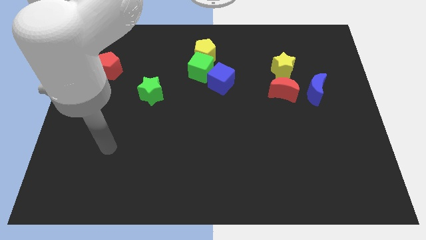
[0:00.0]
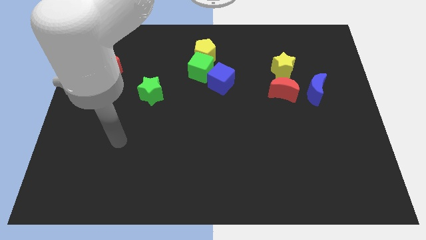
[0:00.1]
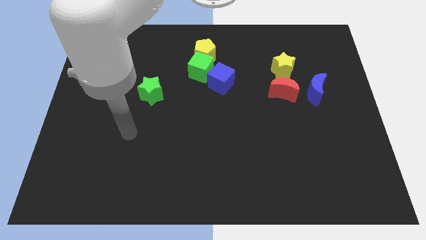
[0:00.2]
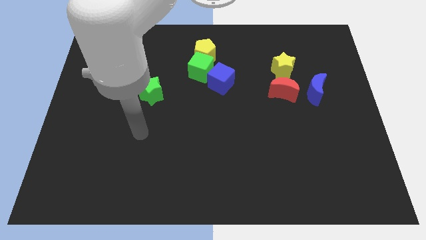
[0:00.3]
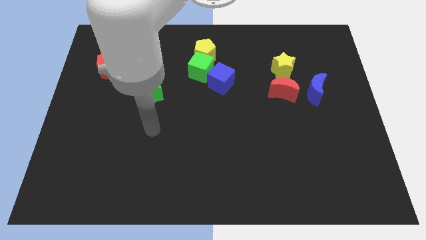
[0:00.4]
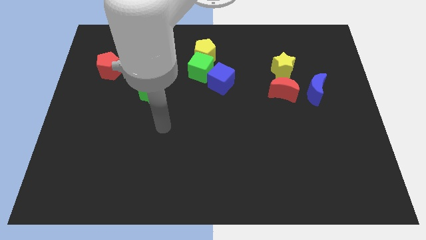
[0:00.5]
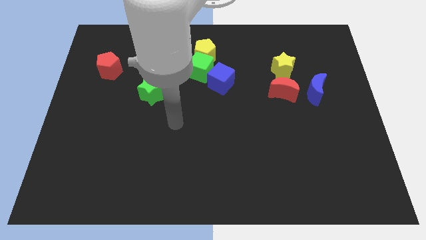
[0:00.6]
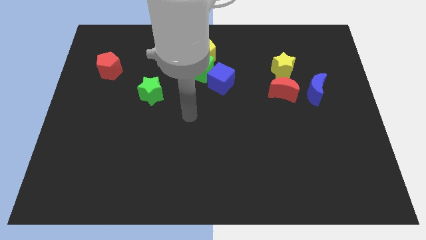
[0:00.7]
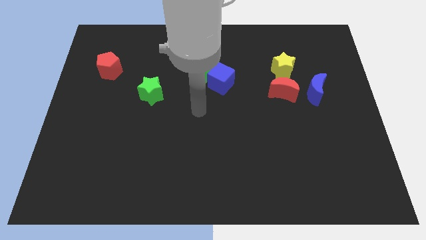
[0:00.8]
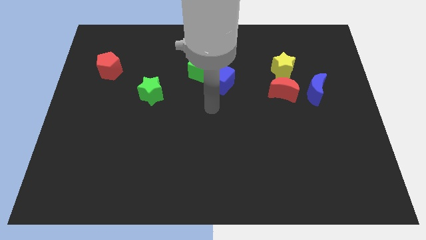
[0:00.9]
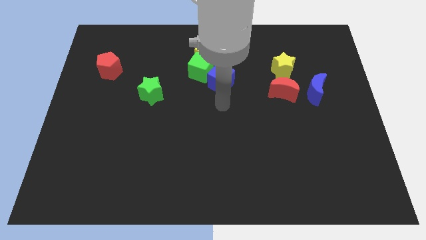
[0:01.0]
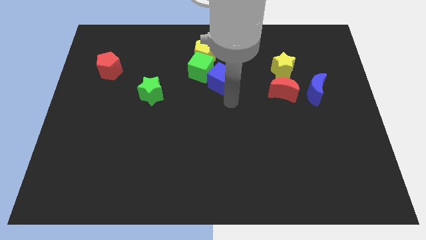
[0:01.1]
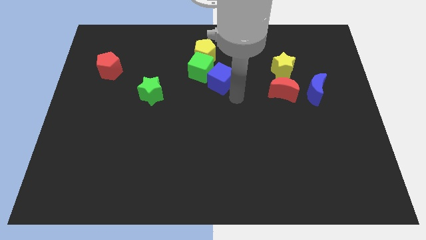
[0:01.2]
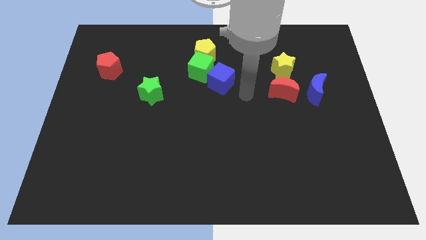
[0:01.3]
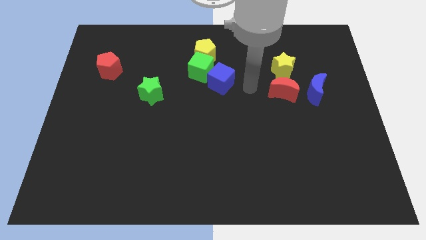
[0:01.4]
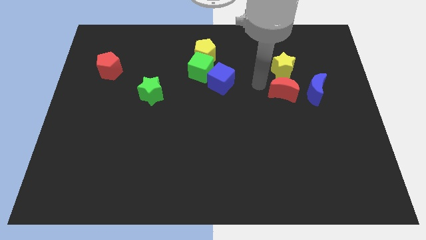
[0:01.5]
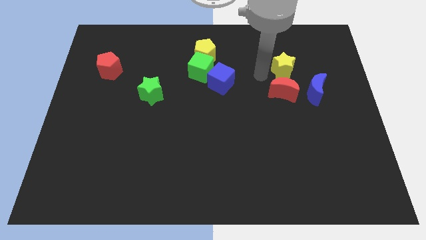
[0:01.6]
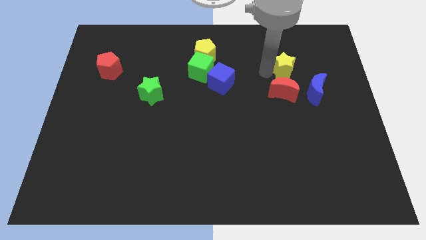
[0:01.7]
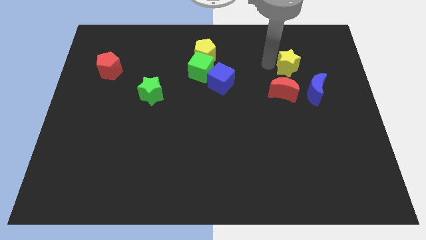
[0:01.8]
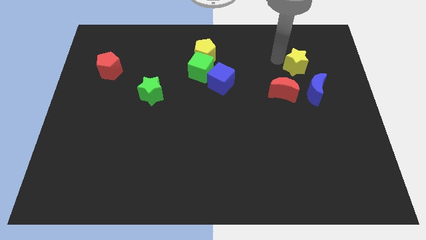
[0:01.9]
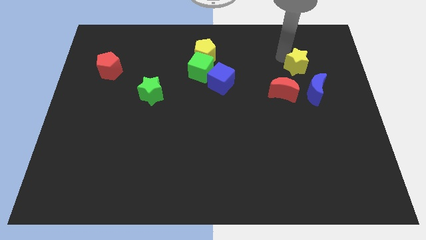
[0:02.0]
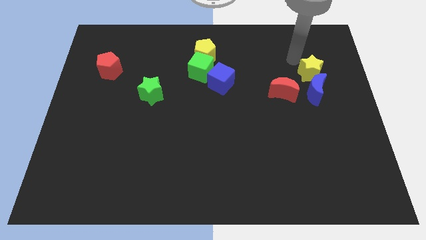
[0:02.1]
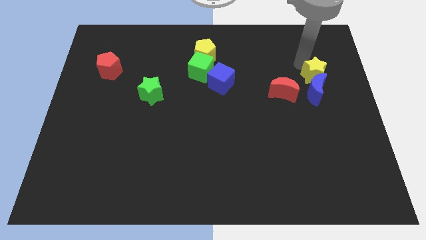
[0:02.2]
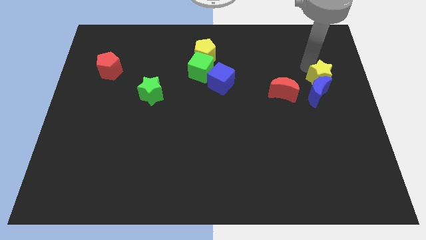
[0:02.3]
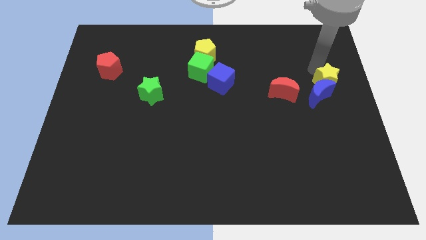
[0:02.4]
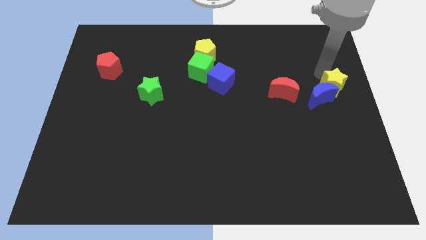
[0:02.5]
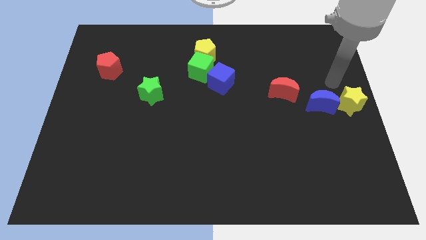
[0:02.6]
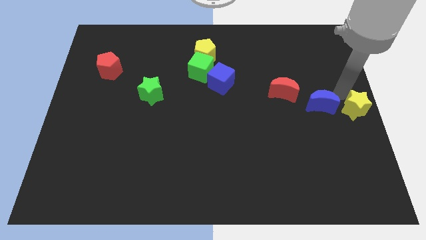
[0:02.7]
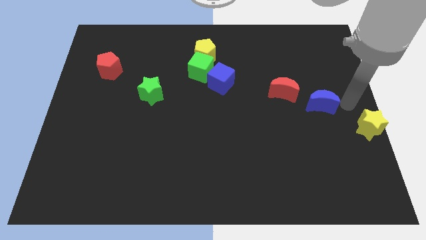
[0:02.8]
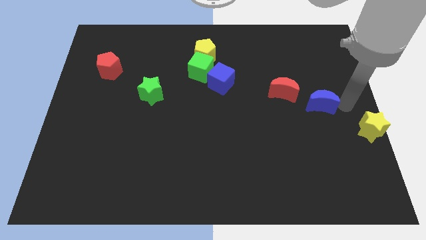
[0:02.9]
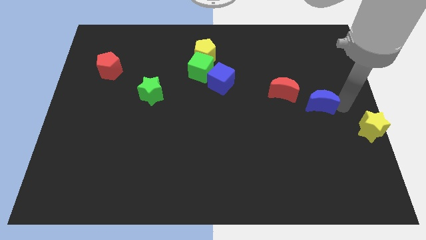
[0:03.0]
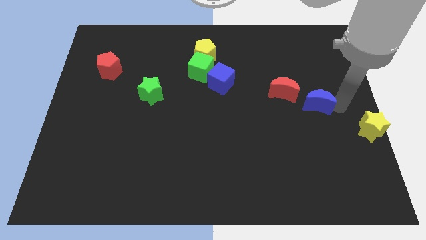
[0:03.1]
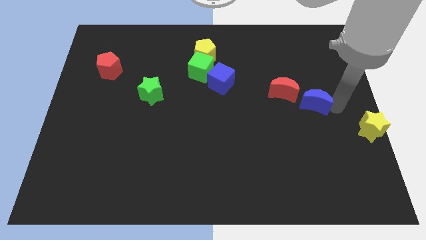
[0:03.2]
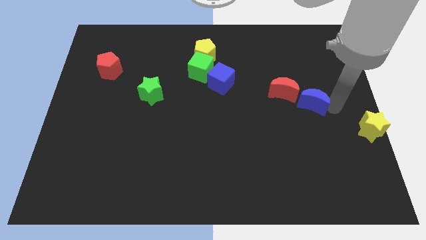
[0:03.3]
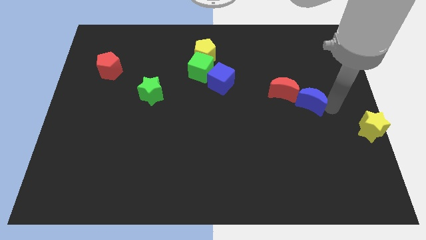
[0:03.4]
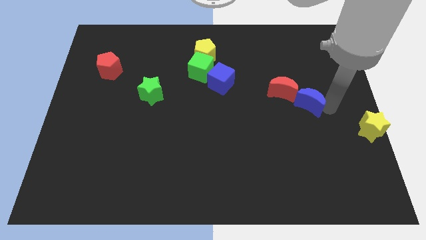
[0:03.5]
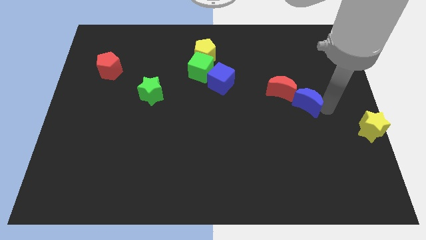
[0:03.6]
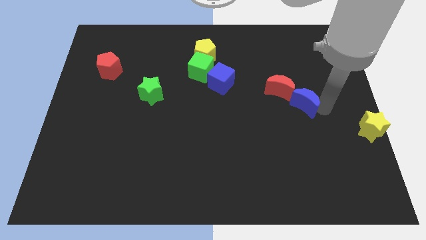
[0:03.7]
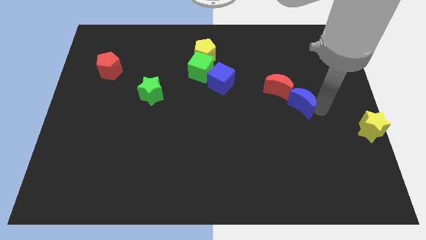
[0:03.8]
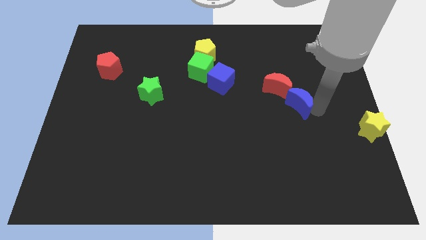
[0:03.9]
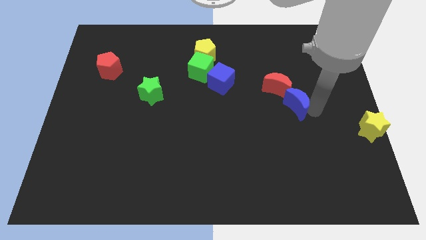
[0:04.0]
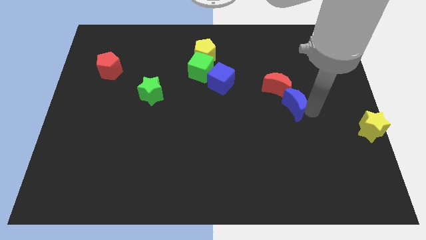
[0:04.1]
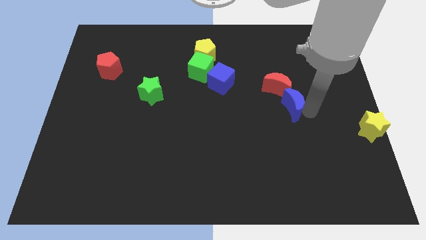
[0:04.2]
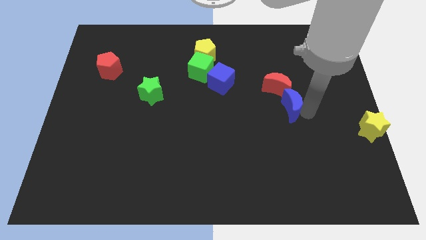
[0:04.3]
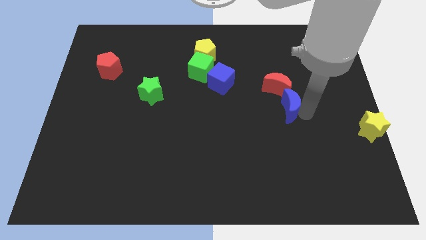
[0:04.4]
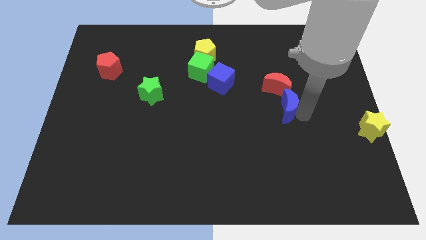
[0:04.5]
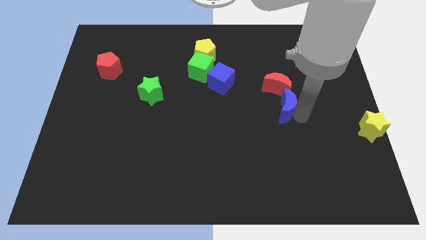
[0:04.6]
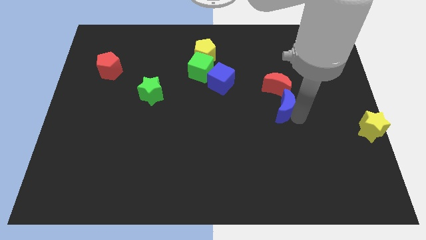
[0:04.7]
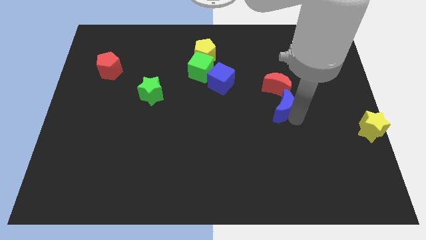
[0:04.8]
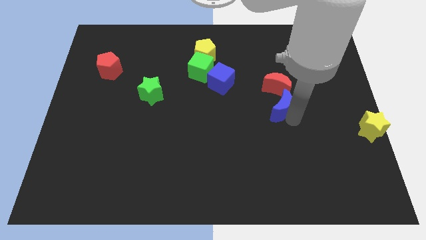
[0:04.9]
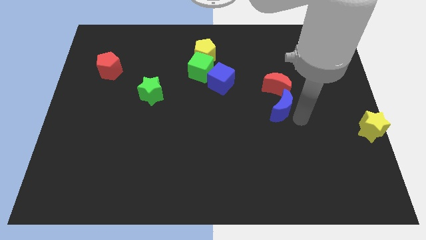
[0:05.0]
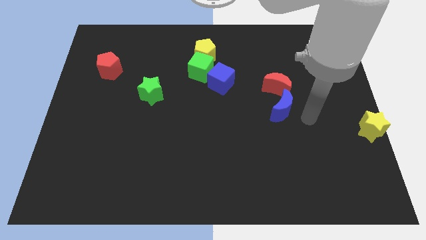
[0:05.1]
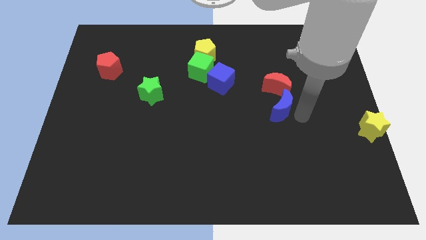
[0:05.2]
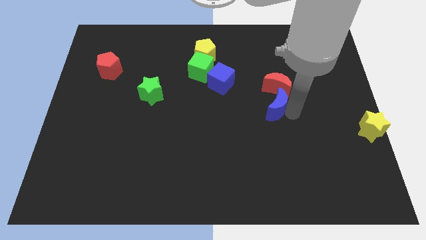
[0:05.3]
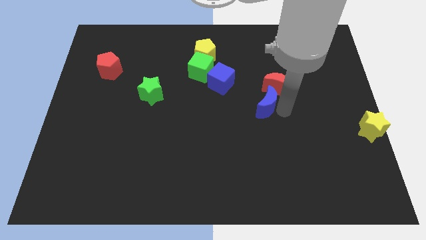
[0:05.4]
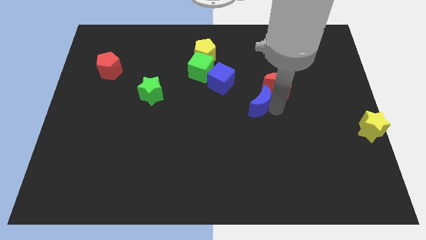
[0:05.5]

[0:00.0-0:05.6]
move the blue moon to the bottom right of the blue cube

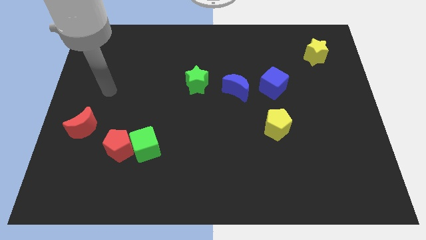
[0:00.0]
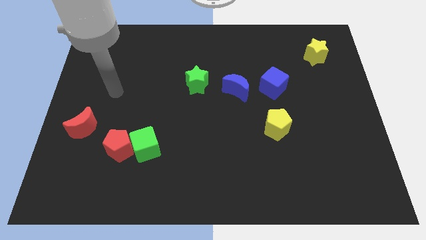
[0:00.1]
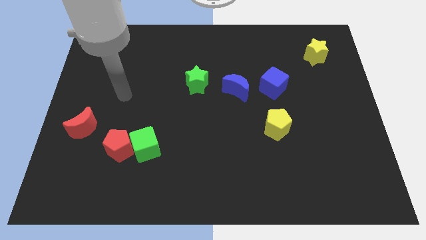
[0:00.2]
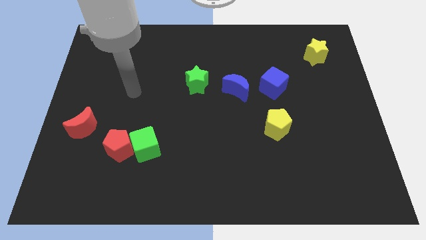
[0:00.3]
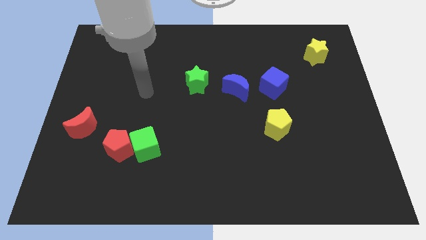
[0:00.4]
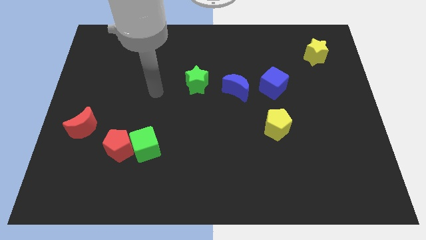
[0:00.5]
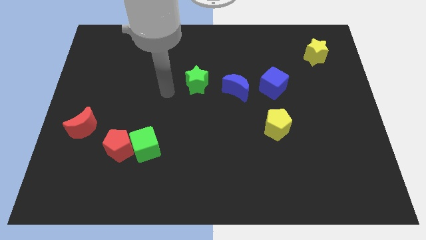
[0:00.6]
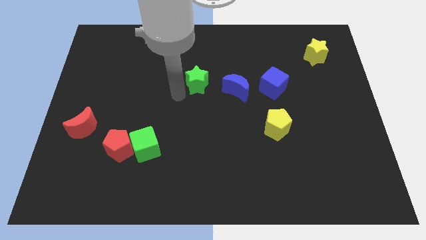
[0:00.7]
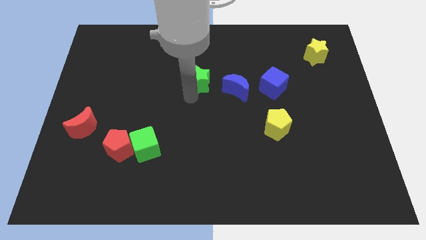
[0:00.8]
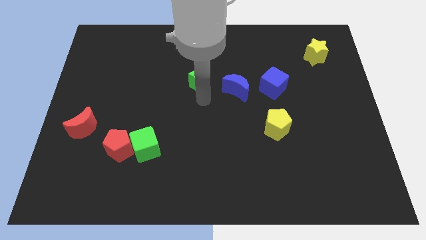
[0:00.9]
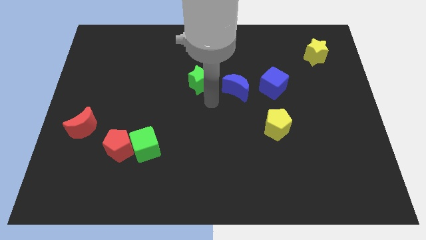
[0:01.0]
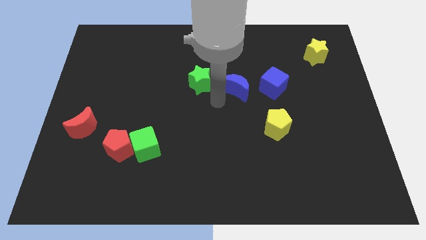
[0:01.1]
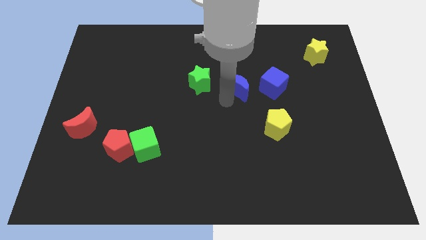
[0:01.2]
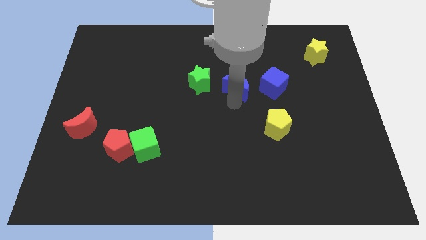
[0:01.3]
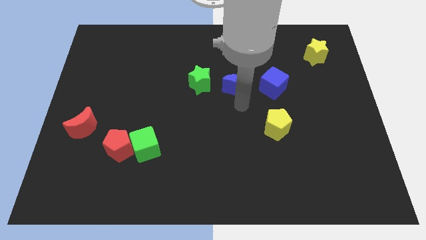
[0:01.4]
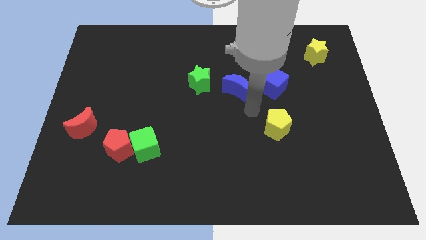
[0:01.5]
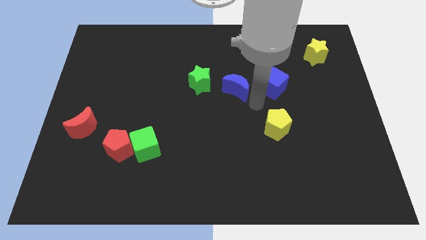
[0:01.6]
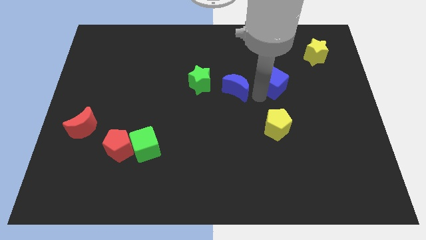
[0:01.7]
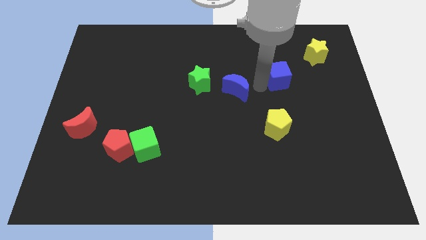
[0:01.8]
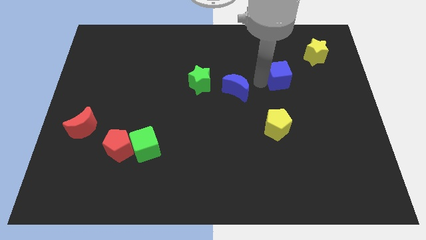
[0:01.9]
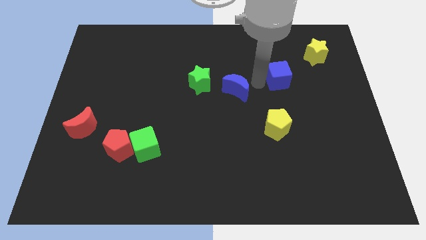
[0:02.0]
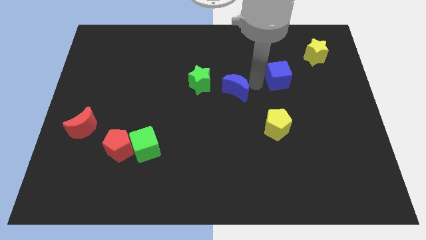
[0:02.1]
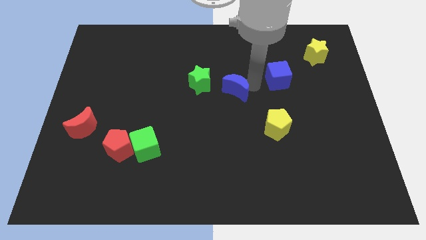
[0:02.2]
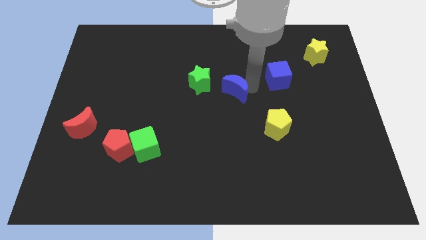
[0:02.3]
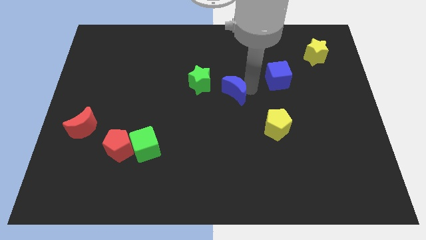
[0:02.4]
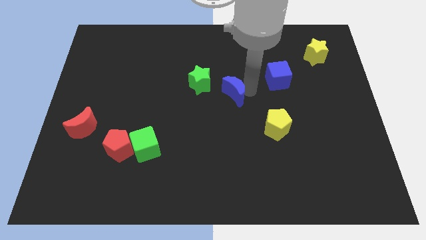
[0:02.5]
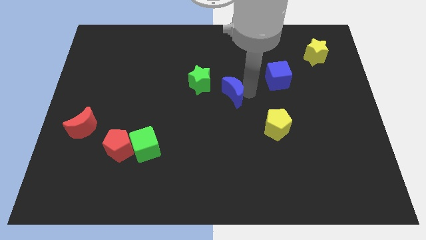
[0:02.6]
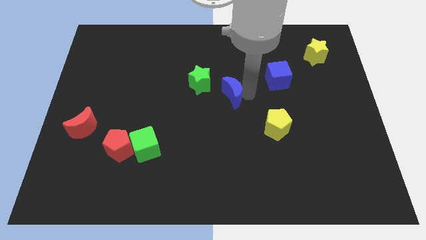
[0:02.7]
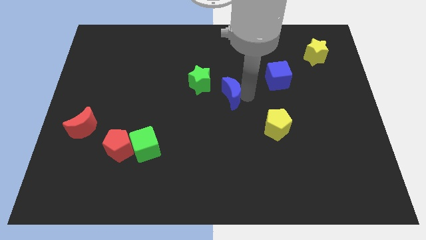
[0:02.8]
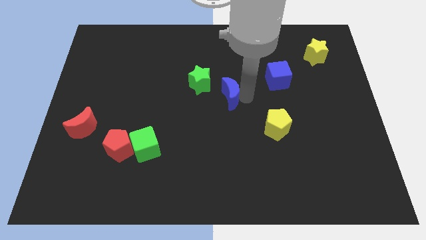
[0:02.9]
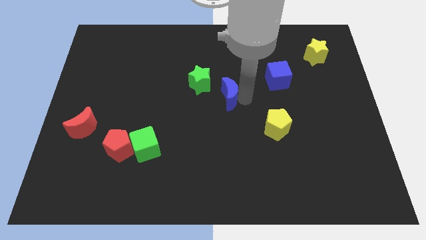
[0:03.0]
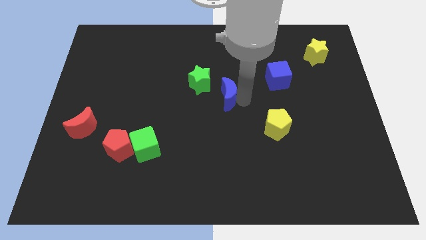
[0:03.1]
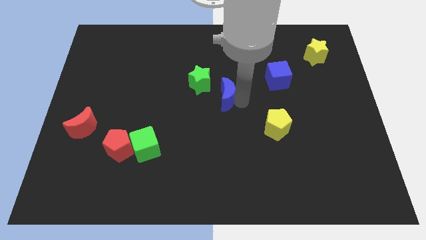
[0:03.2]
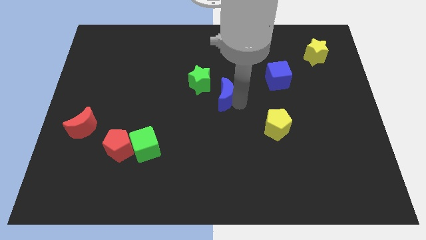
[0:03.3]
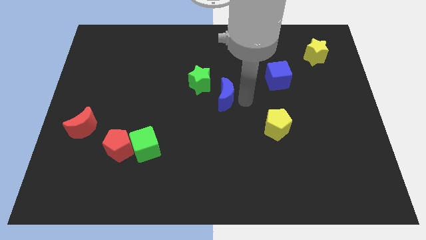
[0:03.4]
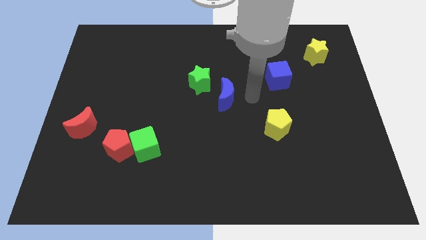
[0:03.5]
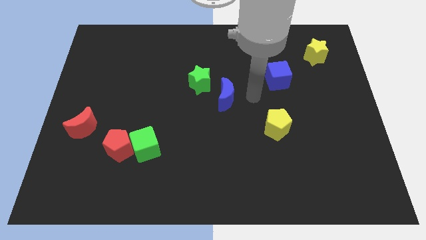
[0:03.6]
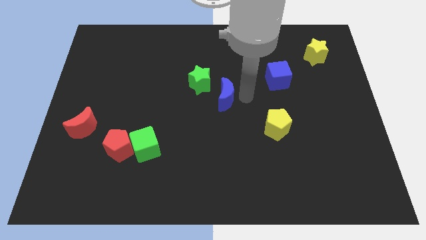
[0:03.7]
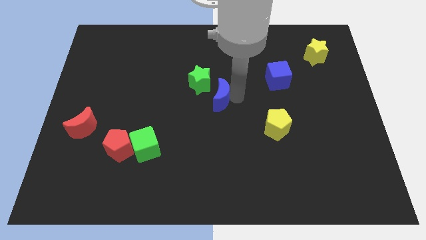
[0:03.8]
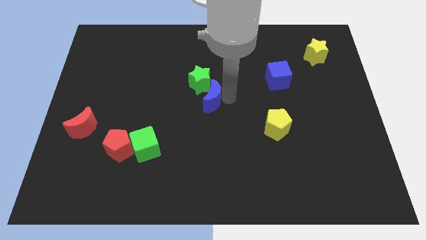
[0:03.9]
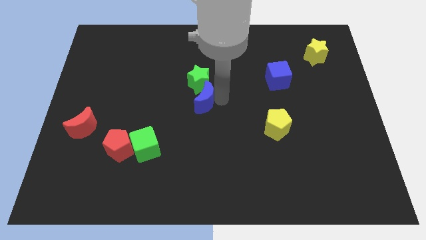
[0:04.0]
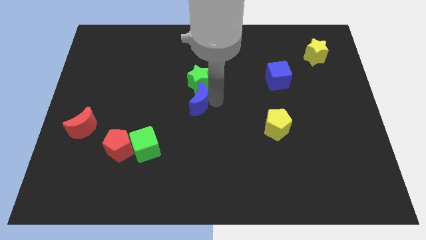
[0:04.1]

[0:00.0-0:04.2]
push the blue moon to the bottom left of the green star
